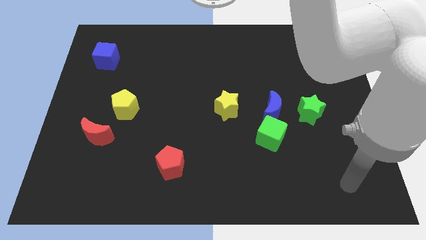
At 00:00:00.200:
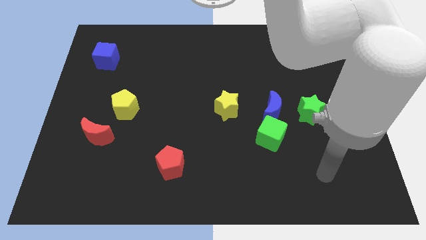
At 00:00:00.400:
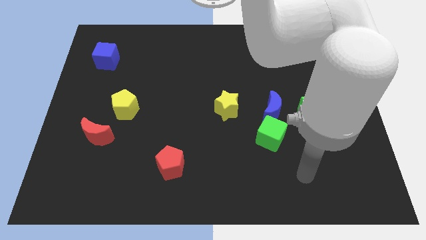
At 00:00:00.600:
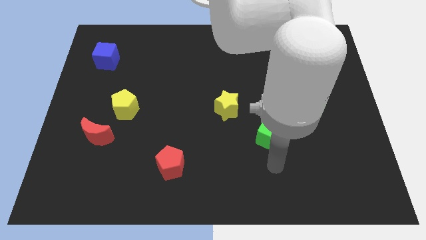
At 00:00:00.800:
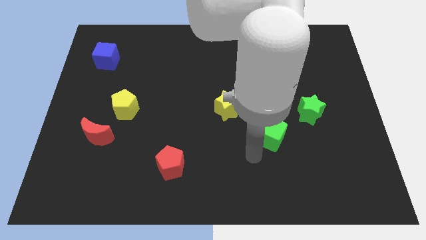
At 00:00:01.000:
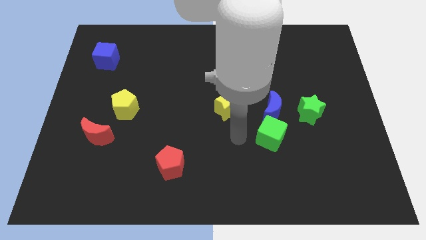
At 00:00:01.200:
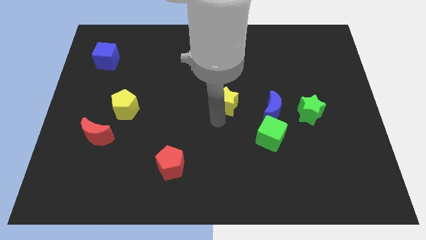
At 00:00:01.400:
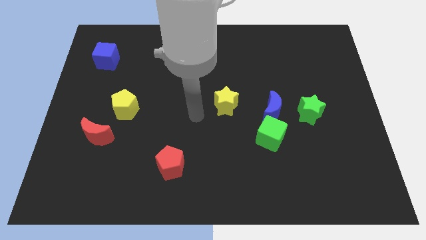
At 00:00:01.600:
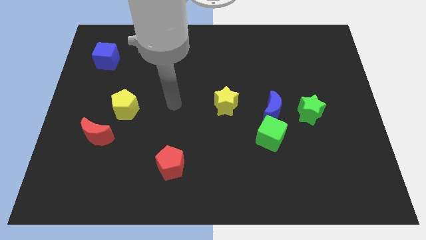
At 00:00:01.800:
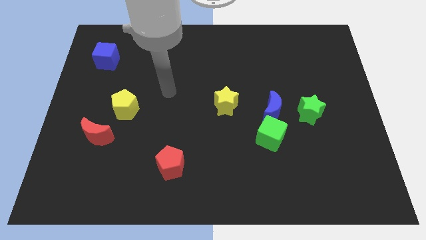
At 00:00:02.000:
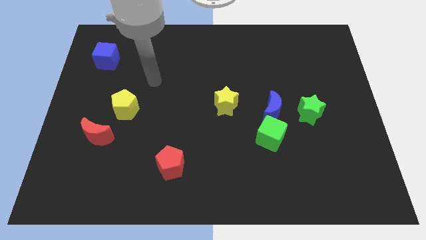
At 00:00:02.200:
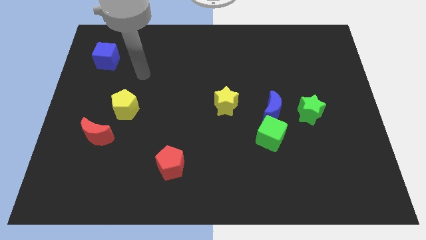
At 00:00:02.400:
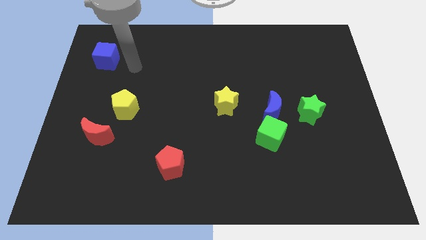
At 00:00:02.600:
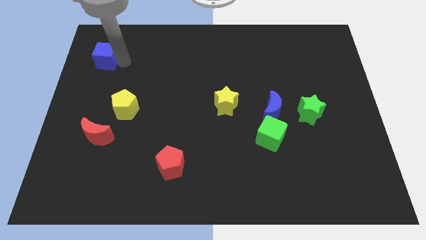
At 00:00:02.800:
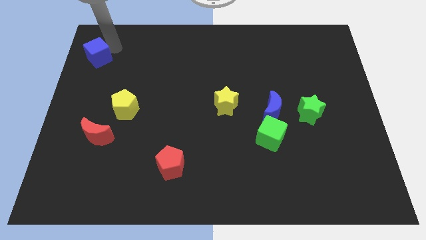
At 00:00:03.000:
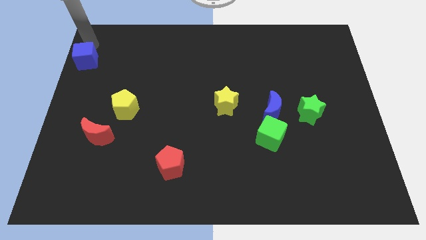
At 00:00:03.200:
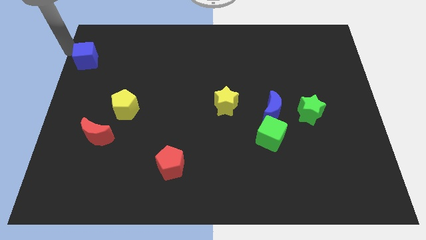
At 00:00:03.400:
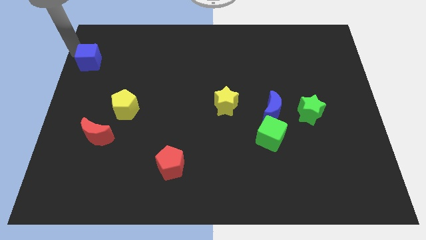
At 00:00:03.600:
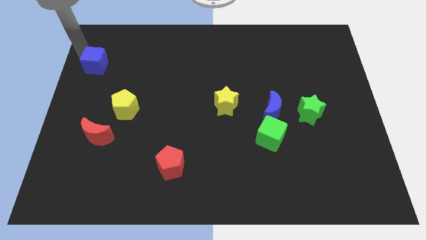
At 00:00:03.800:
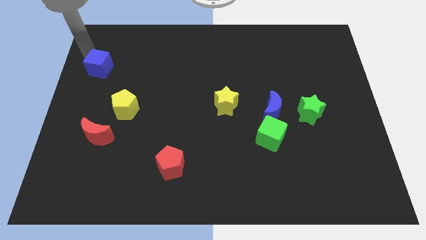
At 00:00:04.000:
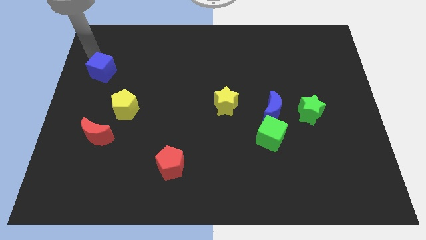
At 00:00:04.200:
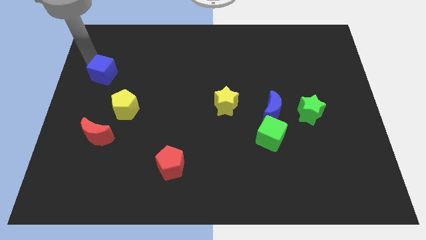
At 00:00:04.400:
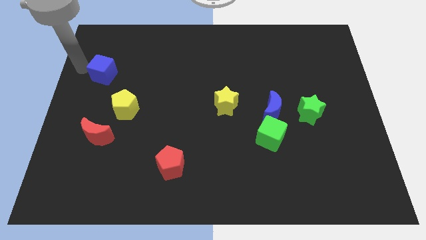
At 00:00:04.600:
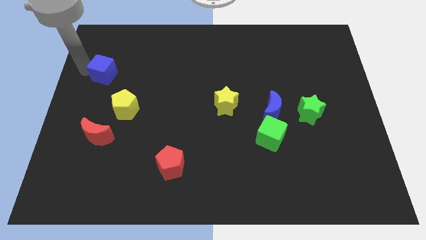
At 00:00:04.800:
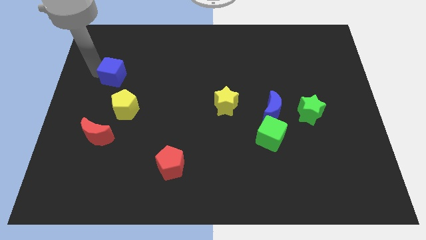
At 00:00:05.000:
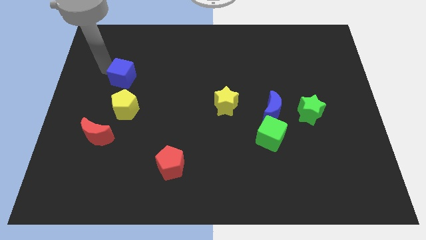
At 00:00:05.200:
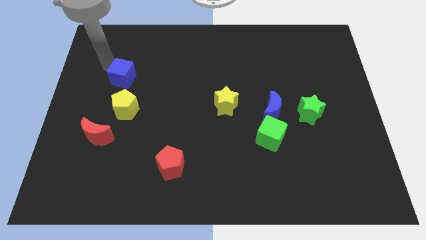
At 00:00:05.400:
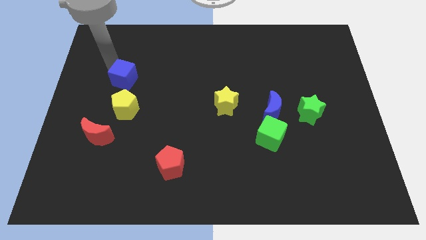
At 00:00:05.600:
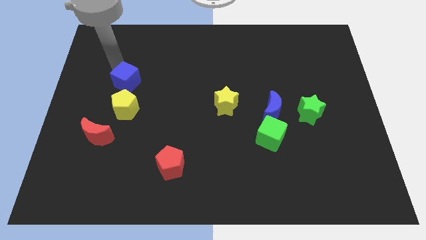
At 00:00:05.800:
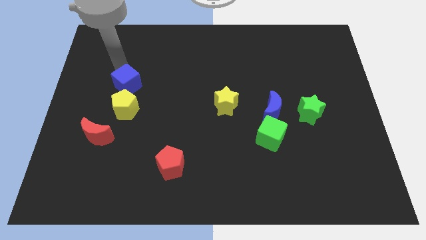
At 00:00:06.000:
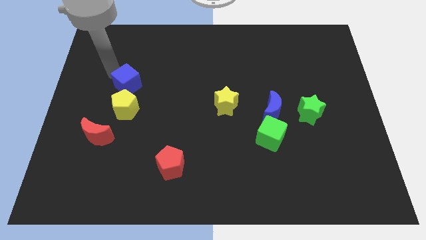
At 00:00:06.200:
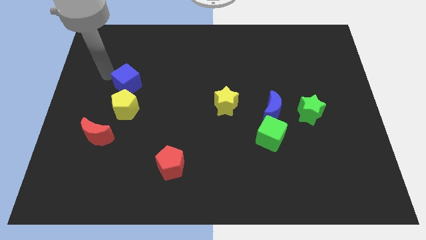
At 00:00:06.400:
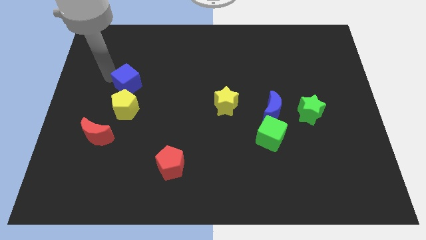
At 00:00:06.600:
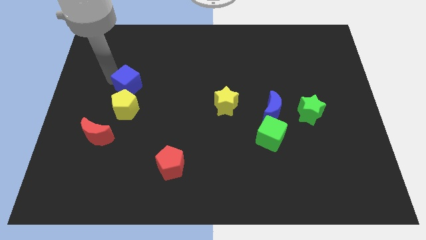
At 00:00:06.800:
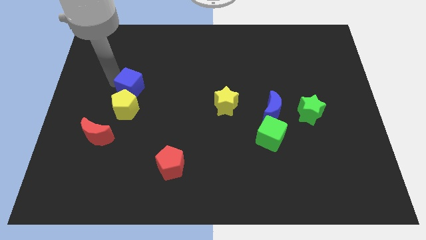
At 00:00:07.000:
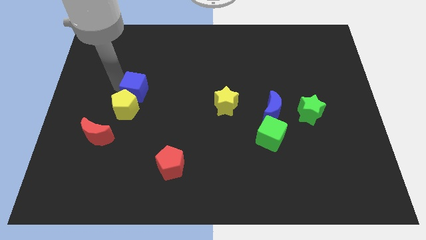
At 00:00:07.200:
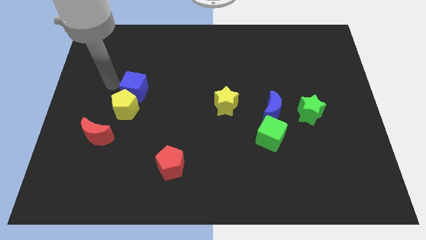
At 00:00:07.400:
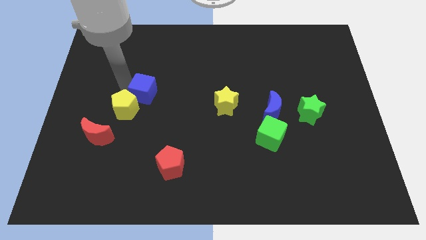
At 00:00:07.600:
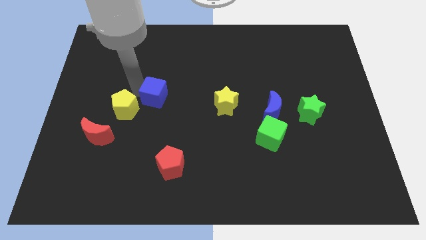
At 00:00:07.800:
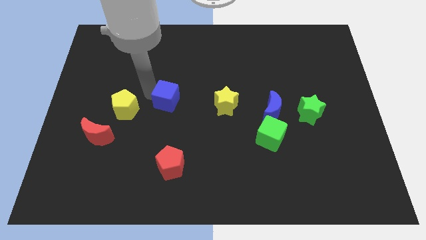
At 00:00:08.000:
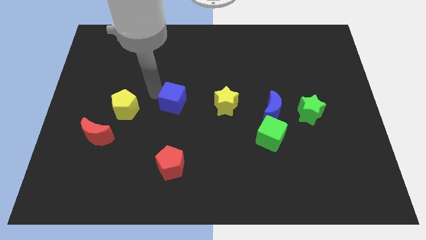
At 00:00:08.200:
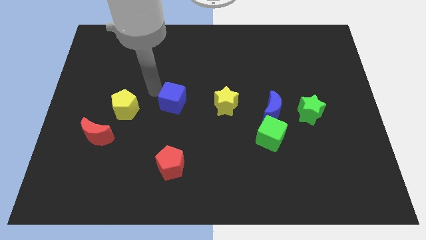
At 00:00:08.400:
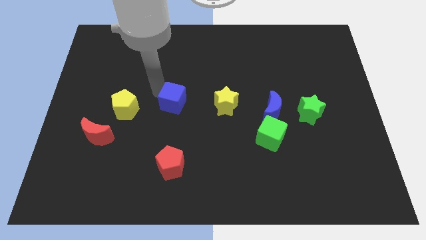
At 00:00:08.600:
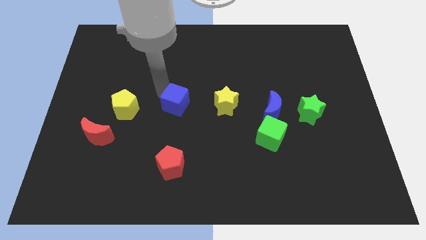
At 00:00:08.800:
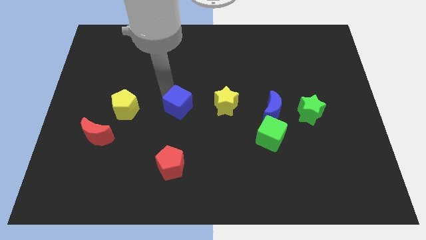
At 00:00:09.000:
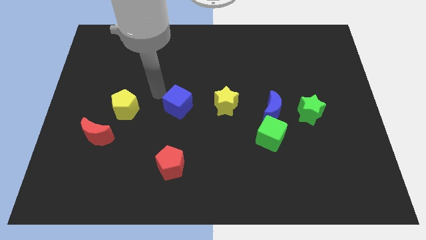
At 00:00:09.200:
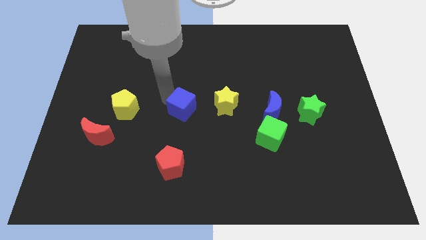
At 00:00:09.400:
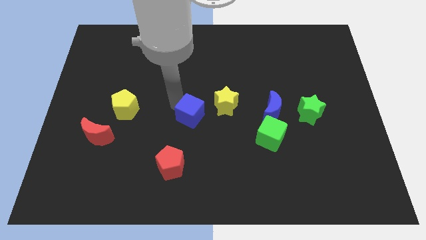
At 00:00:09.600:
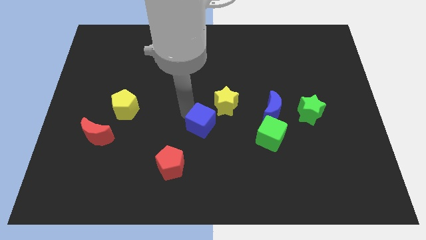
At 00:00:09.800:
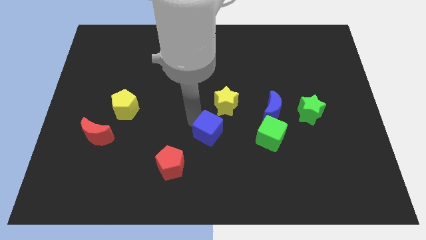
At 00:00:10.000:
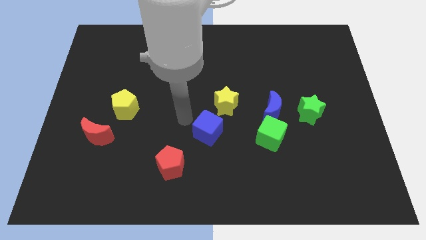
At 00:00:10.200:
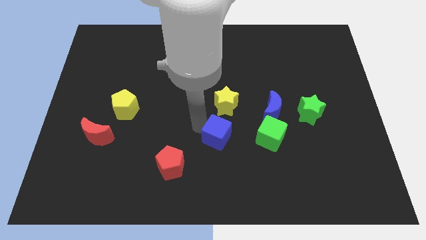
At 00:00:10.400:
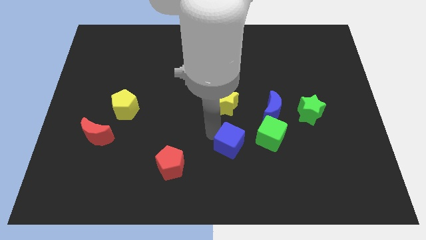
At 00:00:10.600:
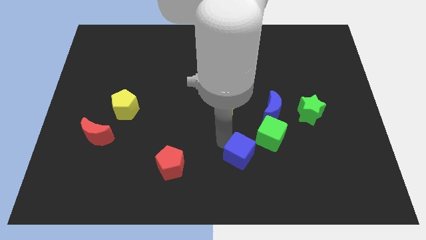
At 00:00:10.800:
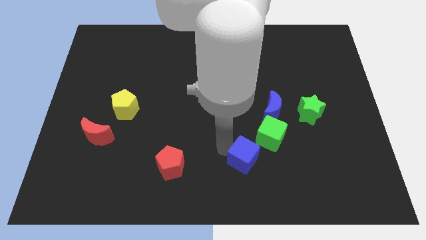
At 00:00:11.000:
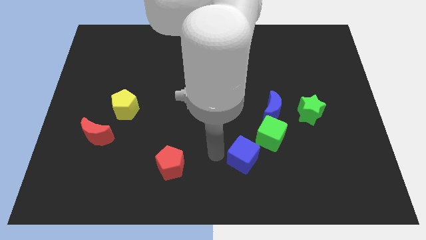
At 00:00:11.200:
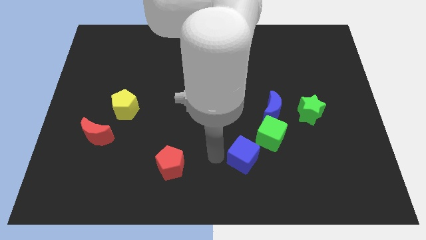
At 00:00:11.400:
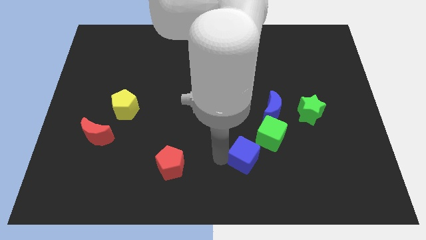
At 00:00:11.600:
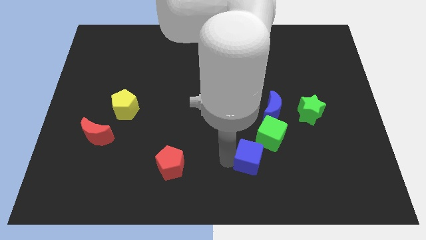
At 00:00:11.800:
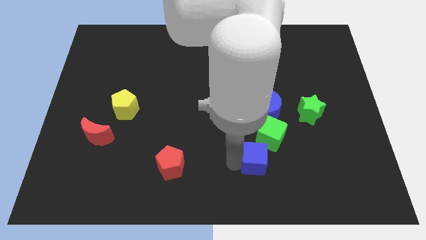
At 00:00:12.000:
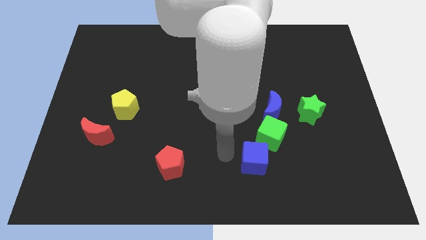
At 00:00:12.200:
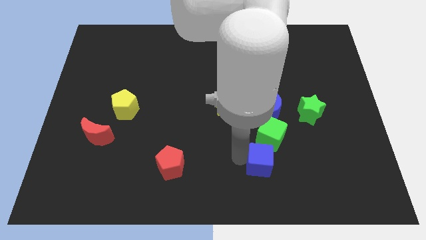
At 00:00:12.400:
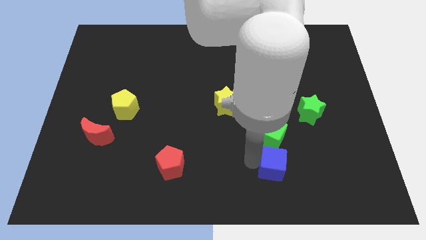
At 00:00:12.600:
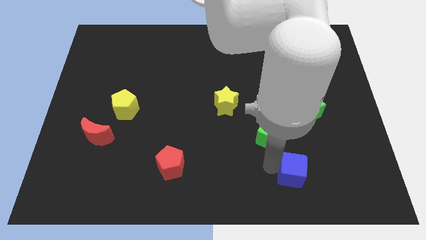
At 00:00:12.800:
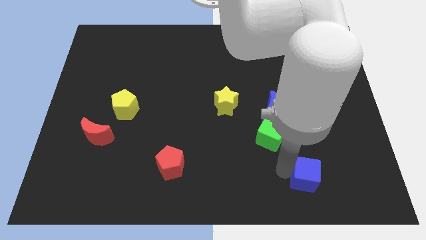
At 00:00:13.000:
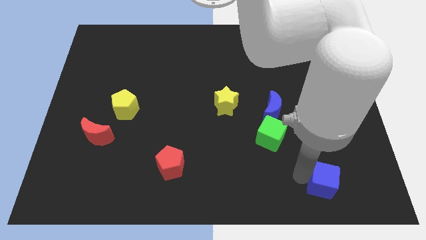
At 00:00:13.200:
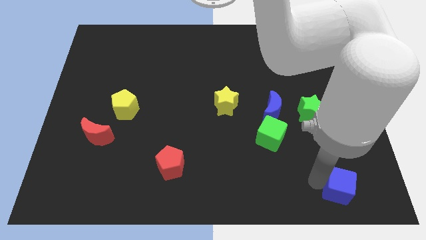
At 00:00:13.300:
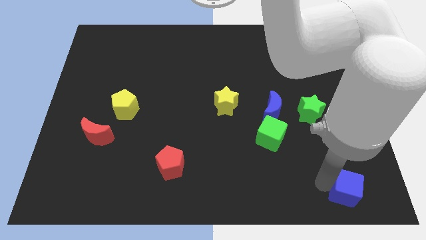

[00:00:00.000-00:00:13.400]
push the blue cube to the bottom right of the board
